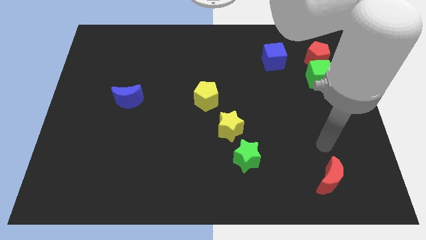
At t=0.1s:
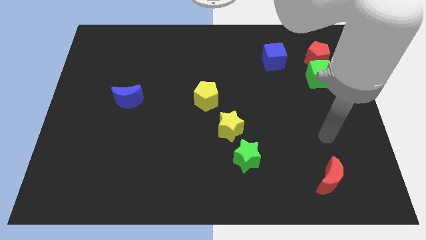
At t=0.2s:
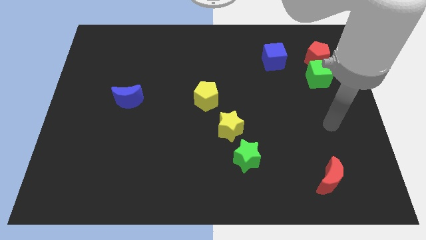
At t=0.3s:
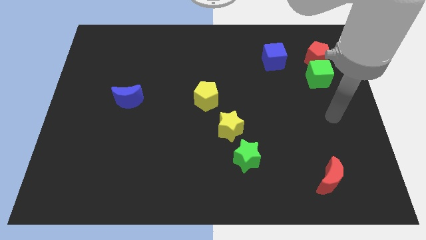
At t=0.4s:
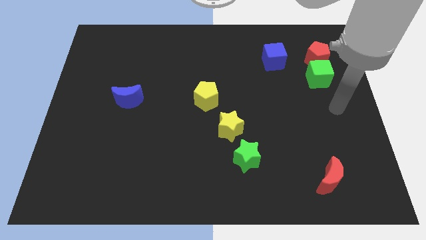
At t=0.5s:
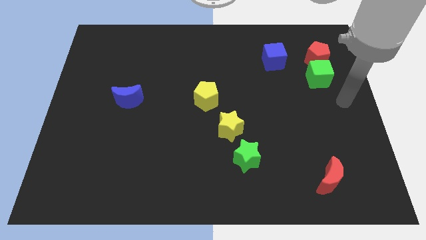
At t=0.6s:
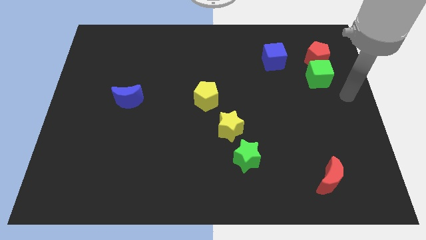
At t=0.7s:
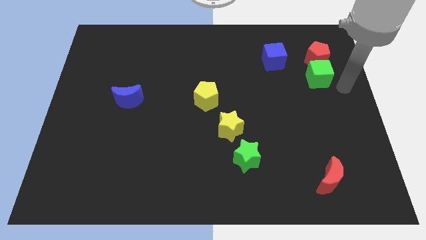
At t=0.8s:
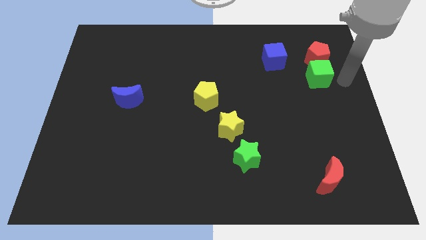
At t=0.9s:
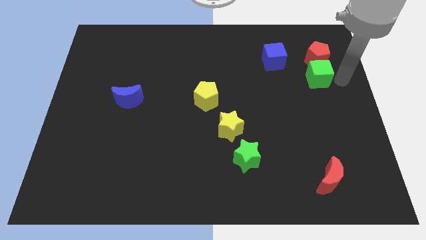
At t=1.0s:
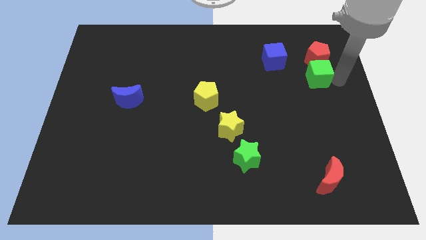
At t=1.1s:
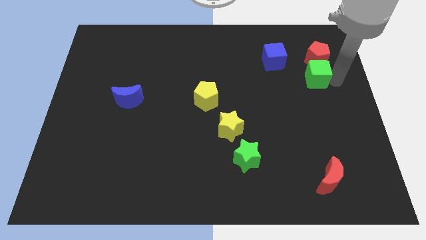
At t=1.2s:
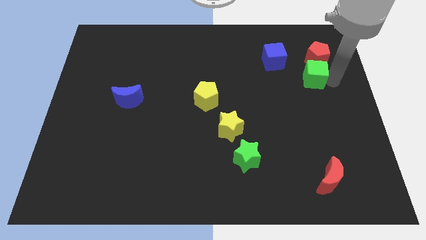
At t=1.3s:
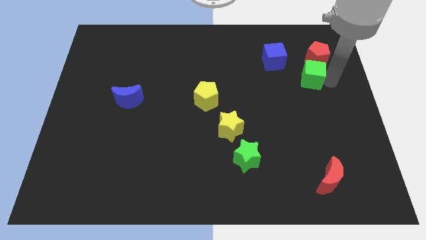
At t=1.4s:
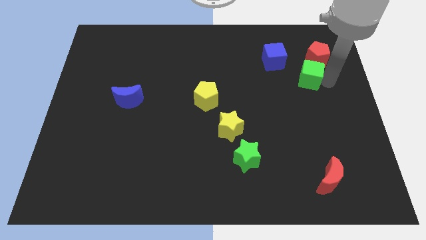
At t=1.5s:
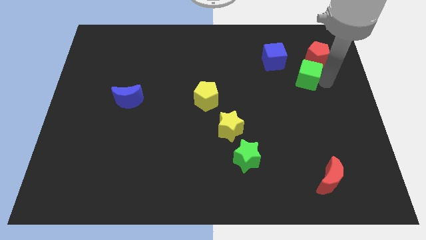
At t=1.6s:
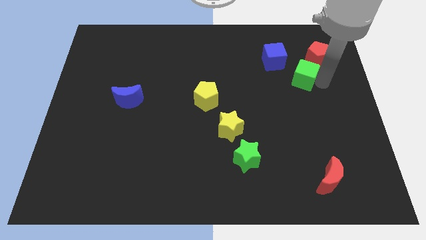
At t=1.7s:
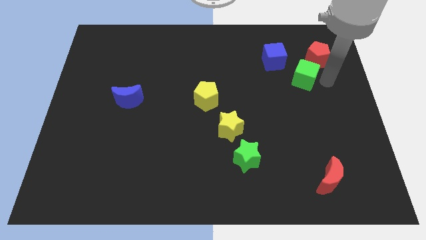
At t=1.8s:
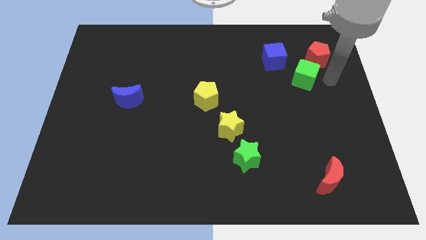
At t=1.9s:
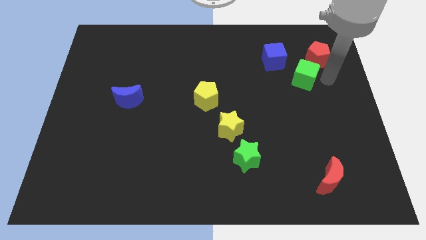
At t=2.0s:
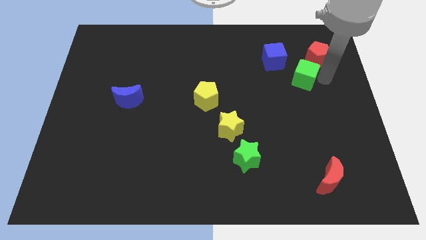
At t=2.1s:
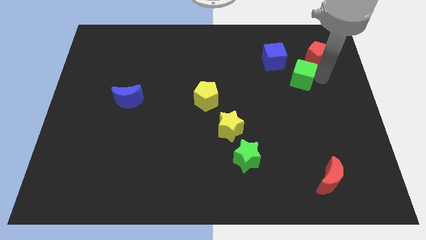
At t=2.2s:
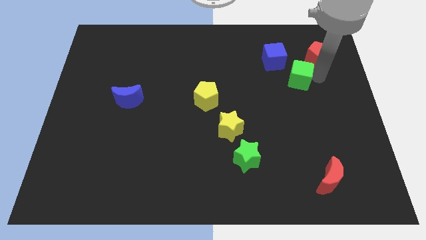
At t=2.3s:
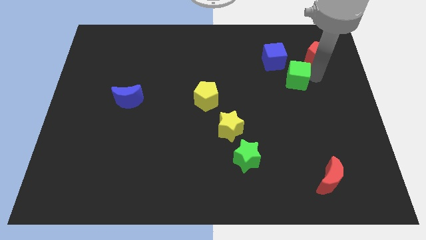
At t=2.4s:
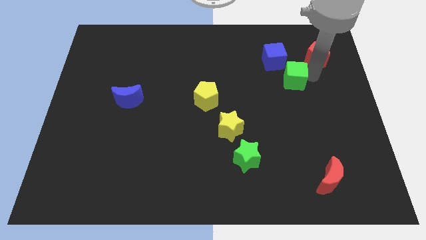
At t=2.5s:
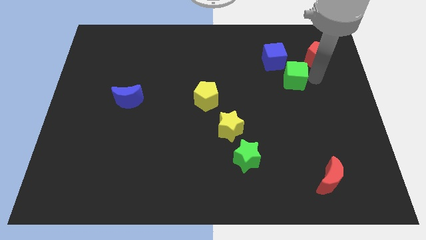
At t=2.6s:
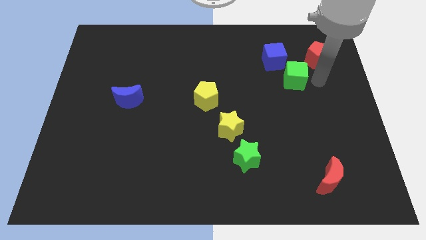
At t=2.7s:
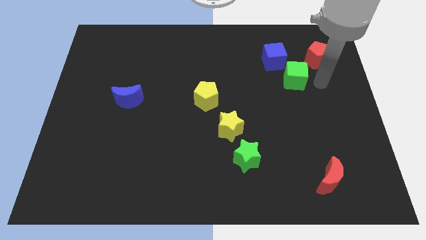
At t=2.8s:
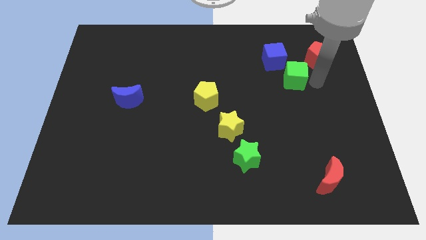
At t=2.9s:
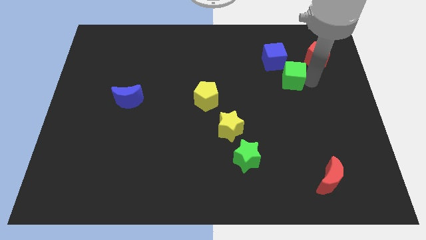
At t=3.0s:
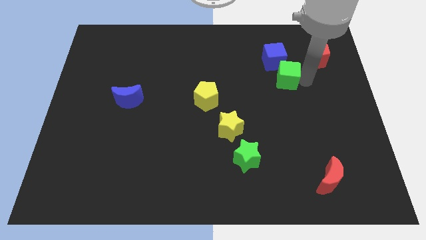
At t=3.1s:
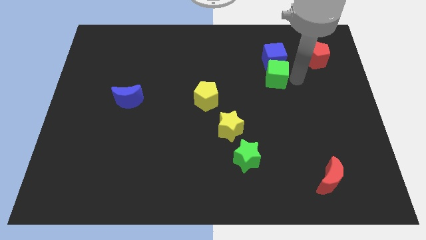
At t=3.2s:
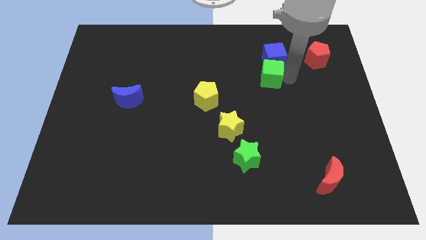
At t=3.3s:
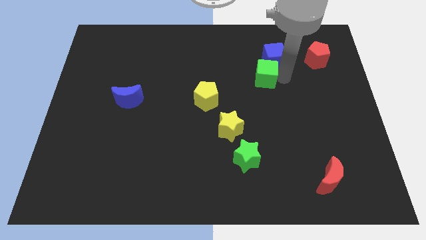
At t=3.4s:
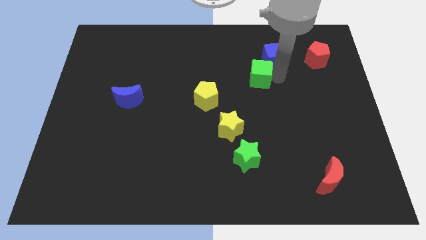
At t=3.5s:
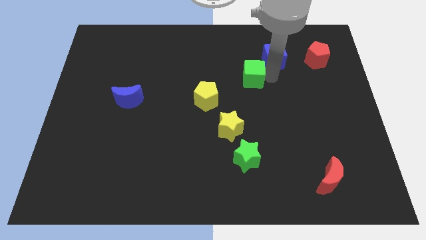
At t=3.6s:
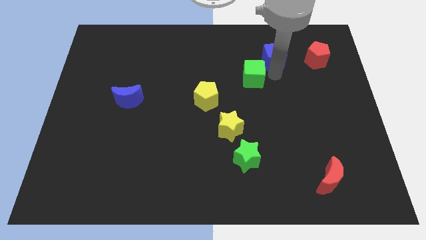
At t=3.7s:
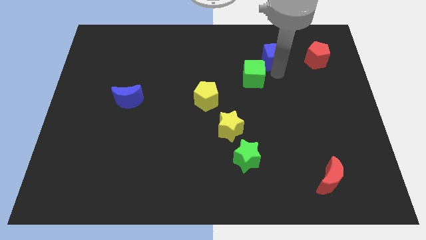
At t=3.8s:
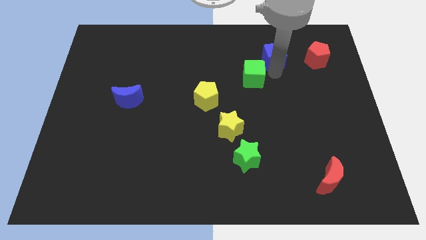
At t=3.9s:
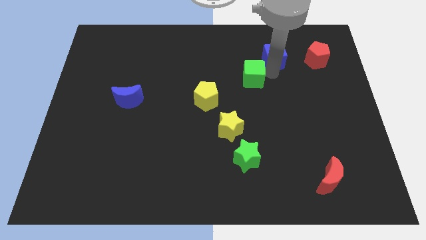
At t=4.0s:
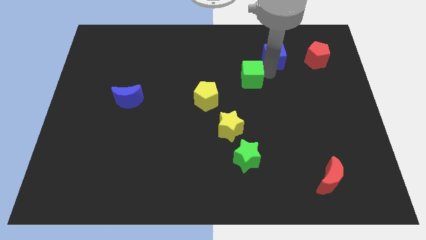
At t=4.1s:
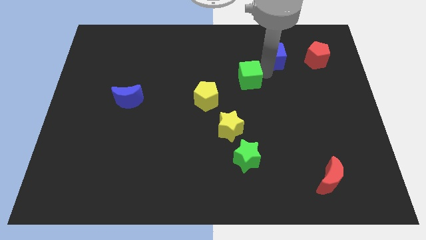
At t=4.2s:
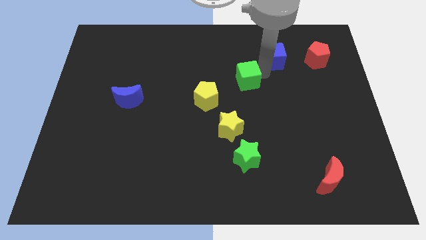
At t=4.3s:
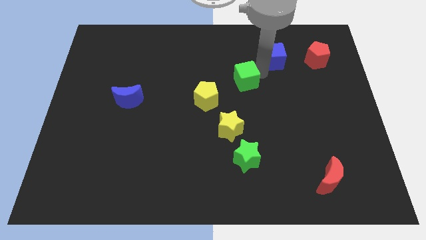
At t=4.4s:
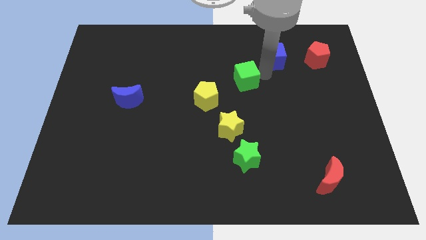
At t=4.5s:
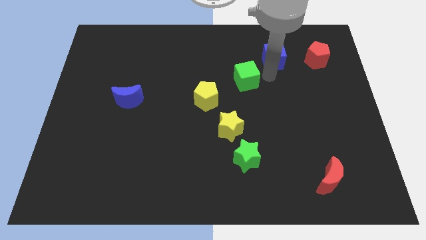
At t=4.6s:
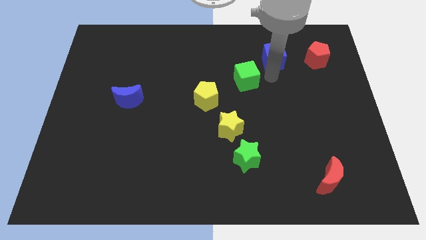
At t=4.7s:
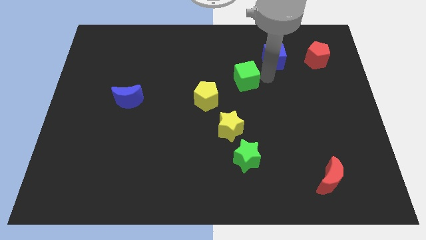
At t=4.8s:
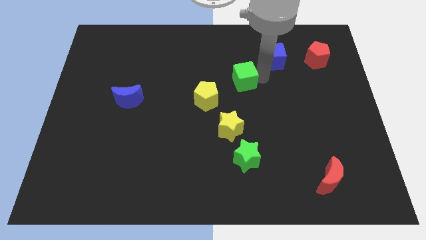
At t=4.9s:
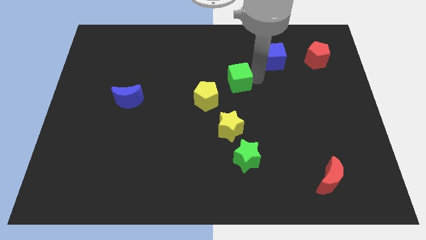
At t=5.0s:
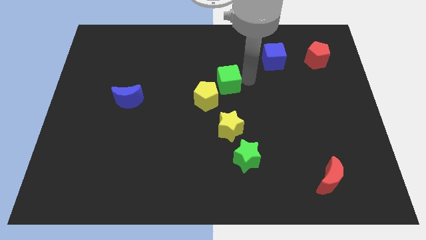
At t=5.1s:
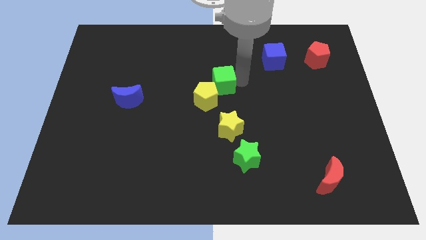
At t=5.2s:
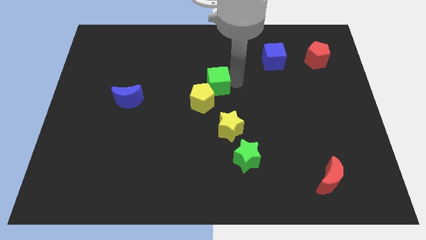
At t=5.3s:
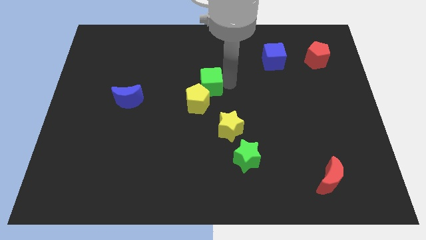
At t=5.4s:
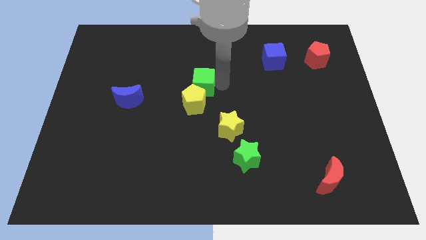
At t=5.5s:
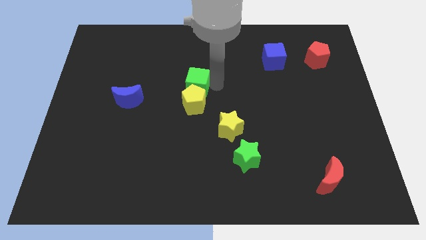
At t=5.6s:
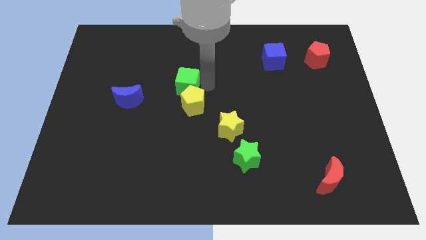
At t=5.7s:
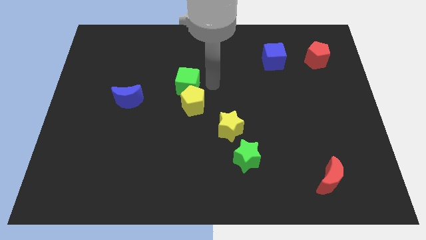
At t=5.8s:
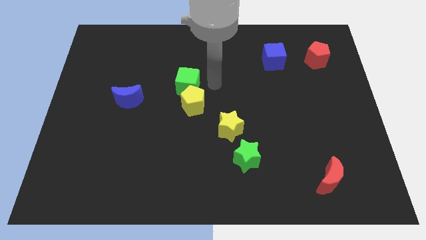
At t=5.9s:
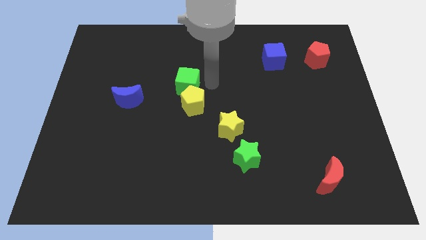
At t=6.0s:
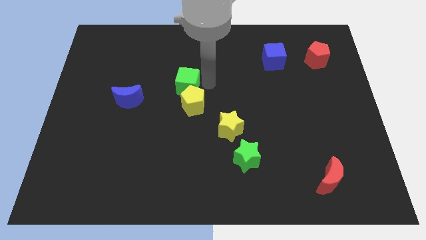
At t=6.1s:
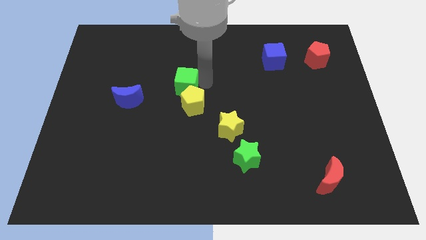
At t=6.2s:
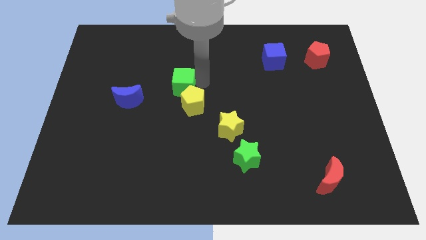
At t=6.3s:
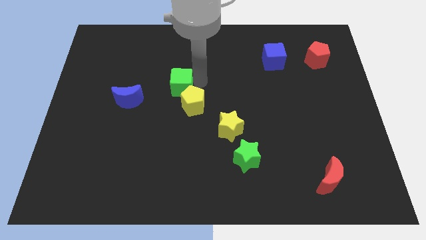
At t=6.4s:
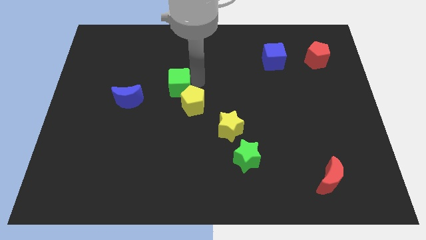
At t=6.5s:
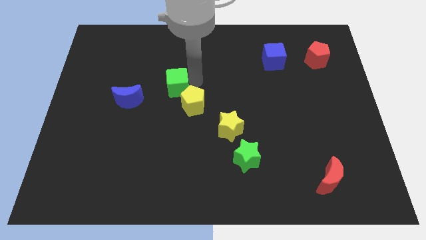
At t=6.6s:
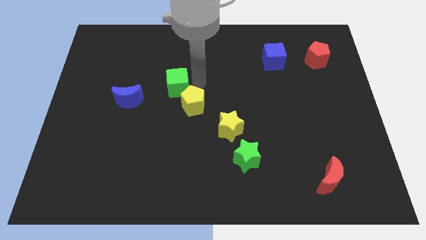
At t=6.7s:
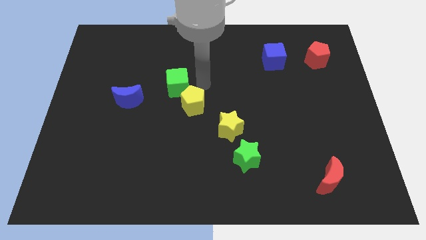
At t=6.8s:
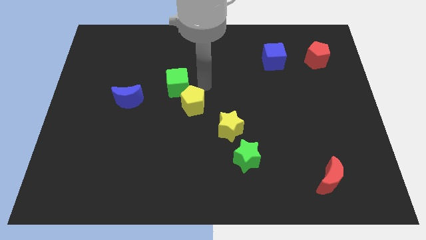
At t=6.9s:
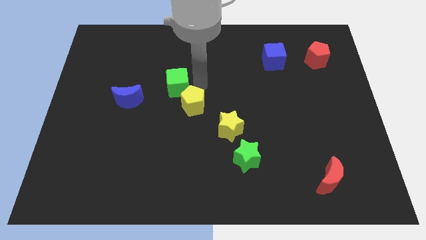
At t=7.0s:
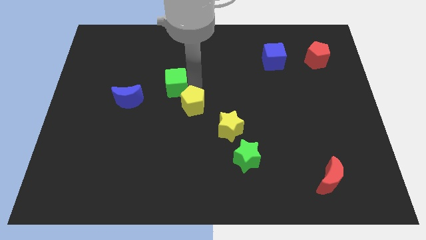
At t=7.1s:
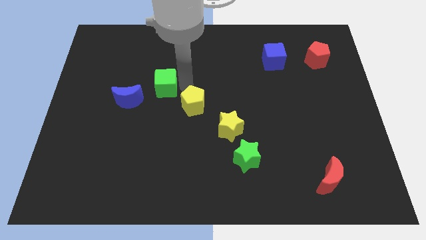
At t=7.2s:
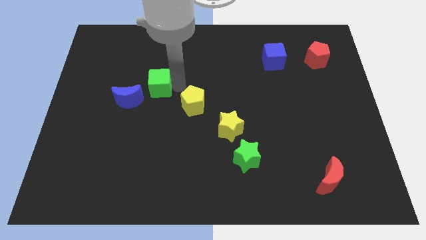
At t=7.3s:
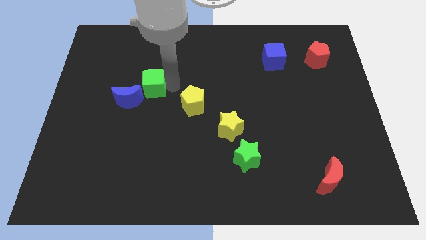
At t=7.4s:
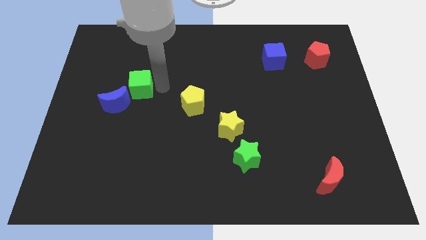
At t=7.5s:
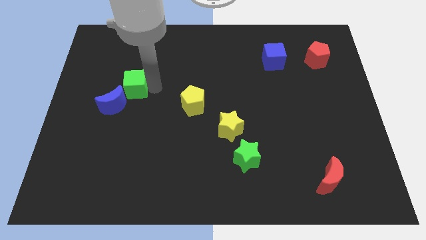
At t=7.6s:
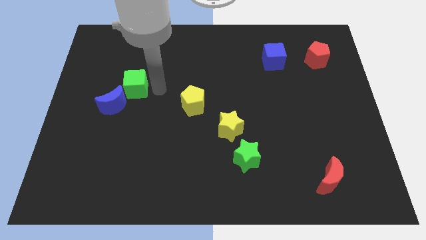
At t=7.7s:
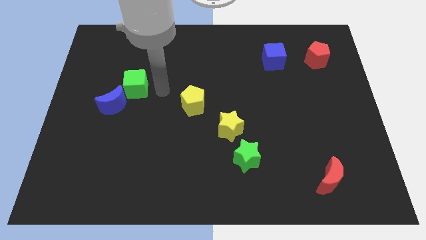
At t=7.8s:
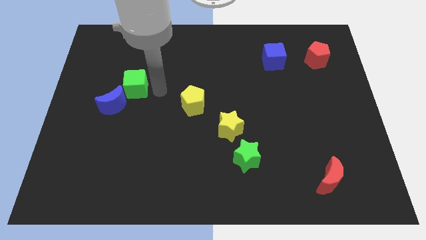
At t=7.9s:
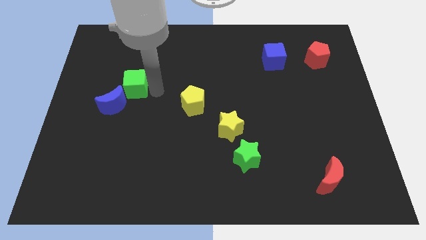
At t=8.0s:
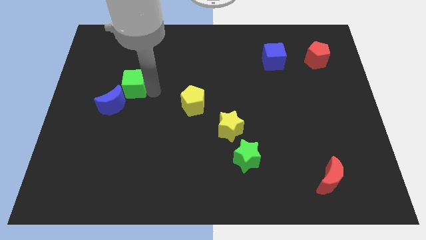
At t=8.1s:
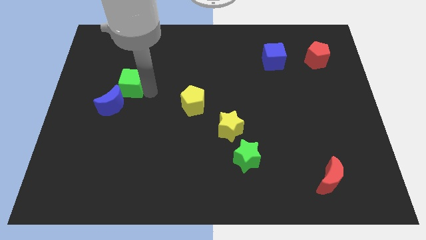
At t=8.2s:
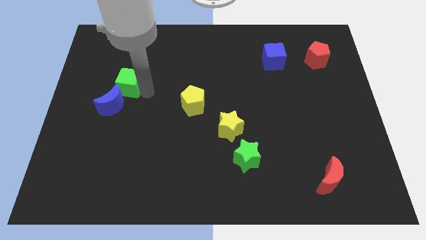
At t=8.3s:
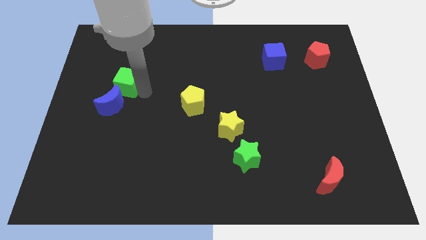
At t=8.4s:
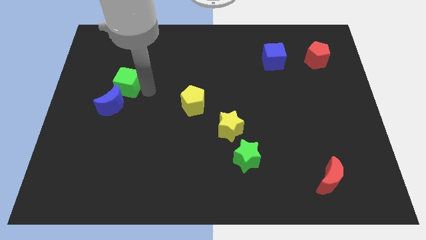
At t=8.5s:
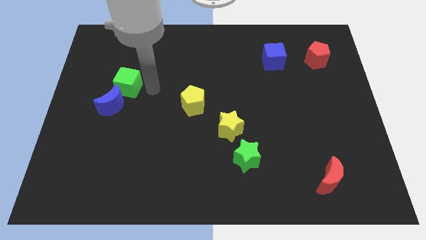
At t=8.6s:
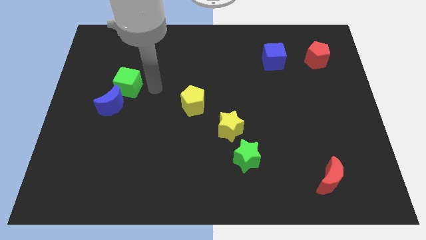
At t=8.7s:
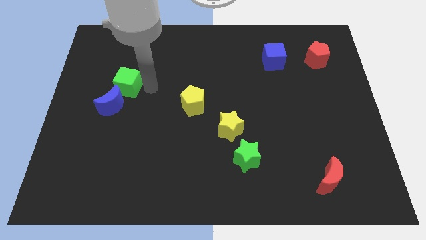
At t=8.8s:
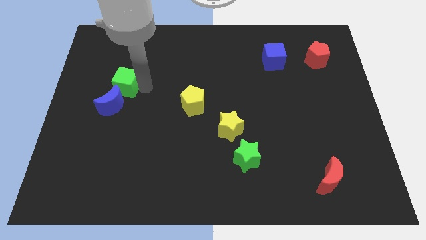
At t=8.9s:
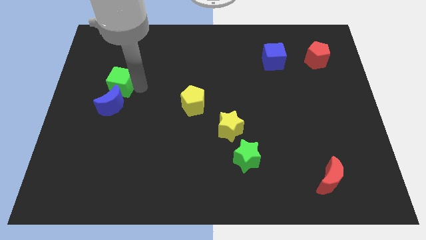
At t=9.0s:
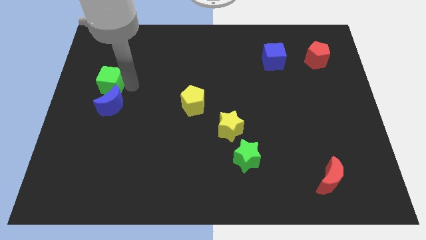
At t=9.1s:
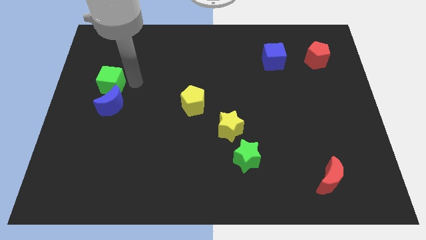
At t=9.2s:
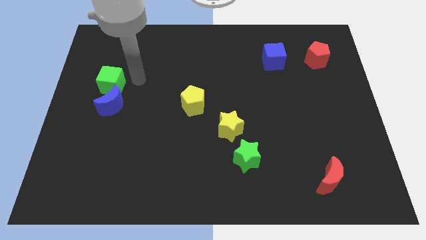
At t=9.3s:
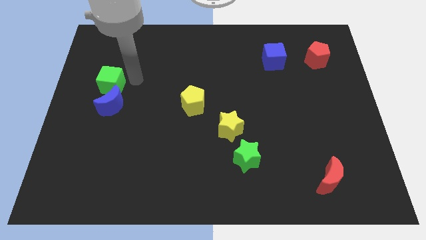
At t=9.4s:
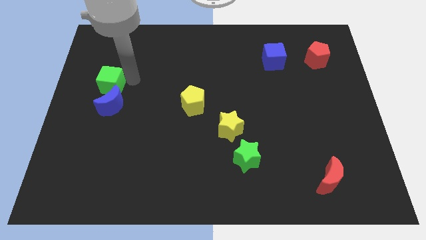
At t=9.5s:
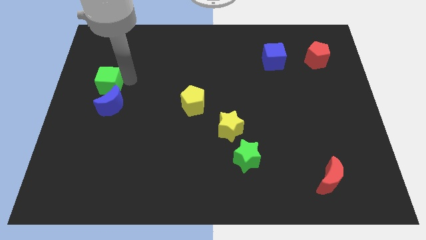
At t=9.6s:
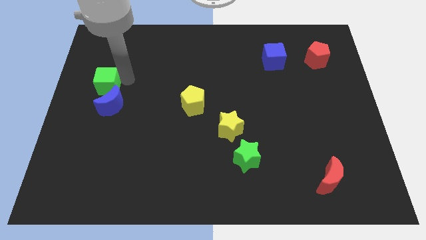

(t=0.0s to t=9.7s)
move the green cube to the left side of the board
